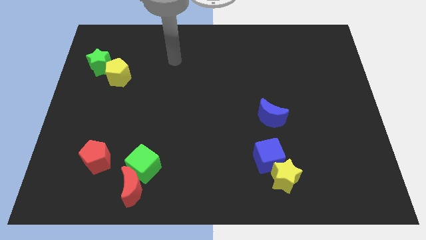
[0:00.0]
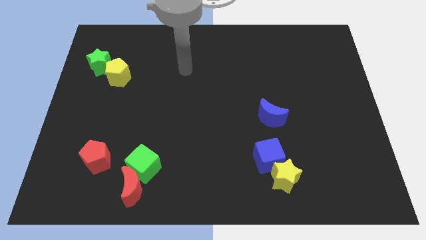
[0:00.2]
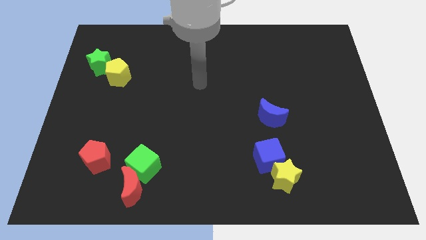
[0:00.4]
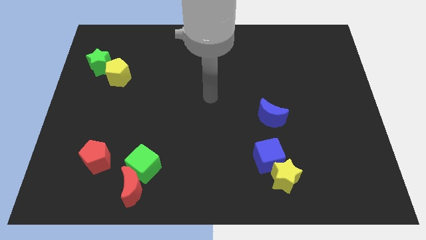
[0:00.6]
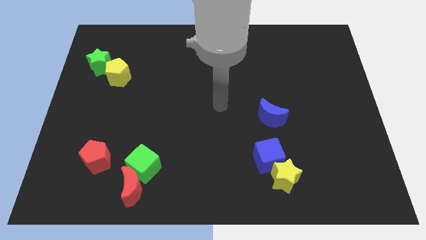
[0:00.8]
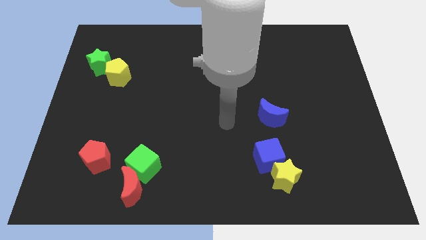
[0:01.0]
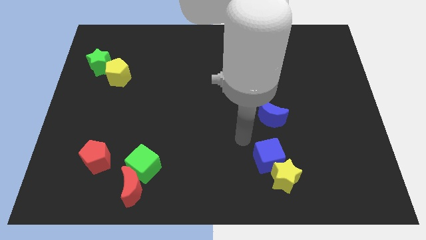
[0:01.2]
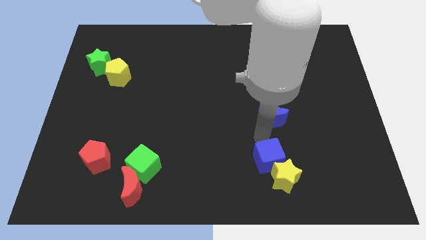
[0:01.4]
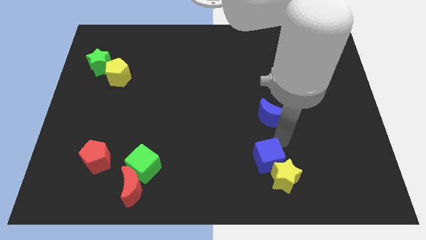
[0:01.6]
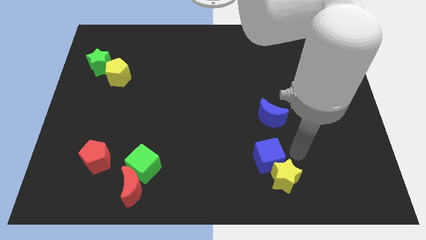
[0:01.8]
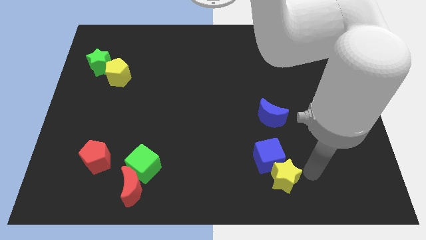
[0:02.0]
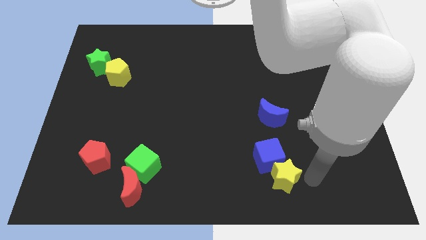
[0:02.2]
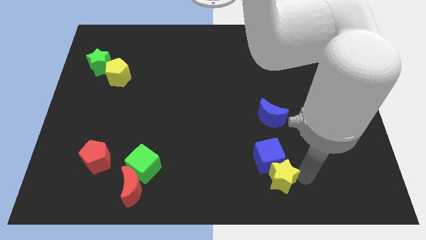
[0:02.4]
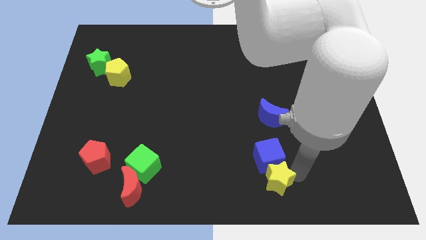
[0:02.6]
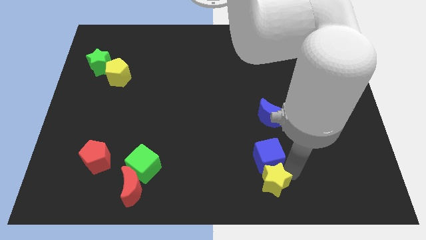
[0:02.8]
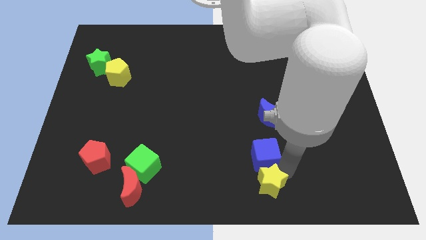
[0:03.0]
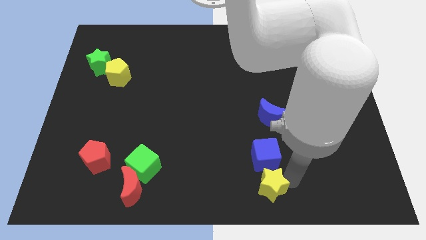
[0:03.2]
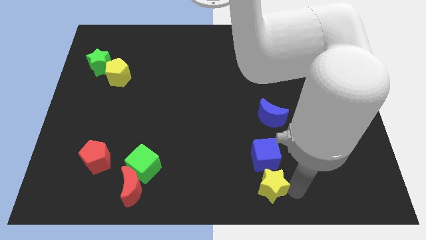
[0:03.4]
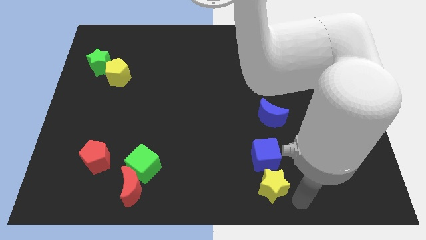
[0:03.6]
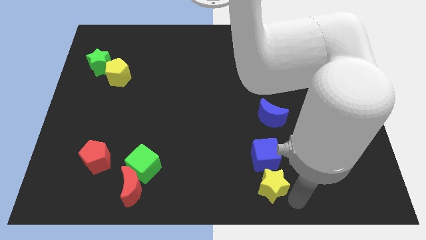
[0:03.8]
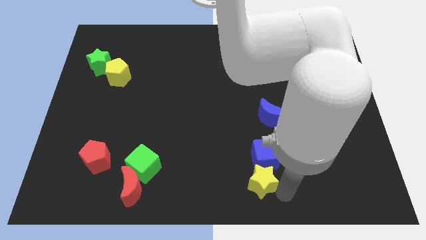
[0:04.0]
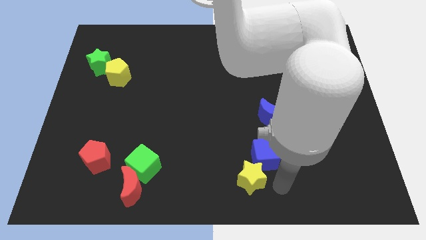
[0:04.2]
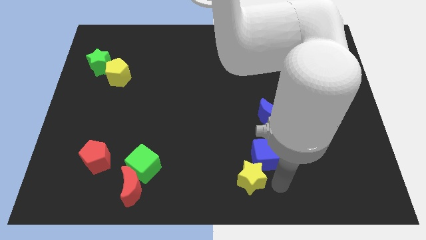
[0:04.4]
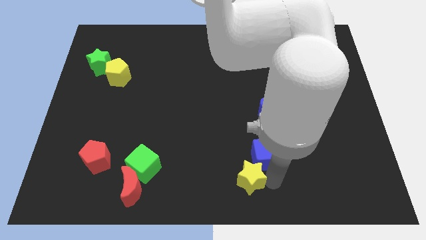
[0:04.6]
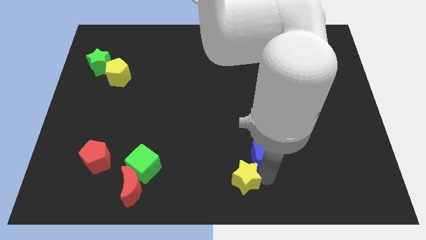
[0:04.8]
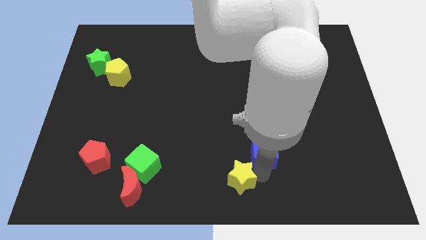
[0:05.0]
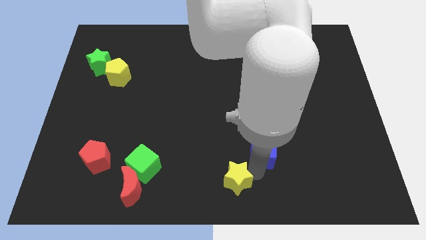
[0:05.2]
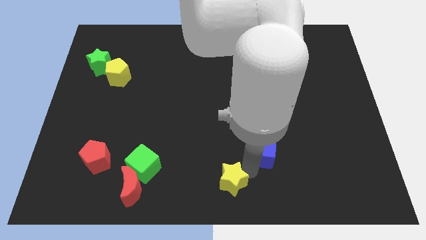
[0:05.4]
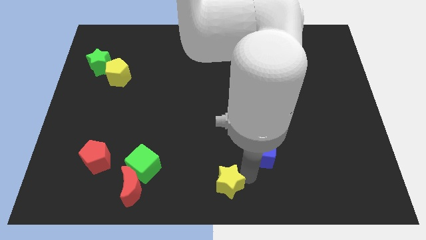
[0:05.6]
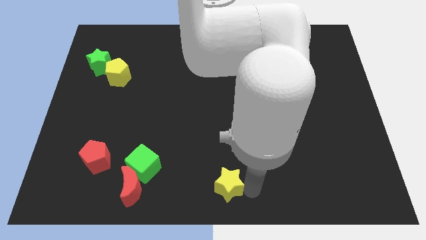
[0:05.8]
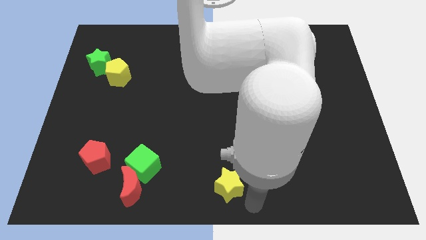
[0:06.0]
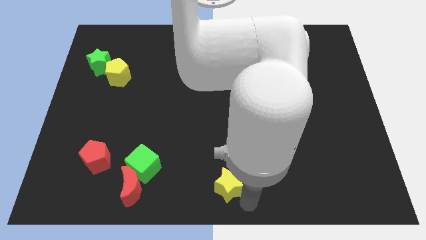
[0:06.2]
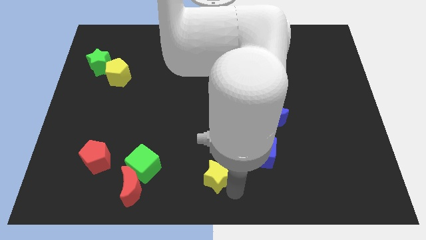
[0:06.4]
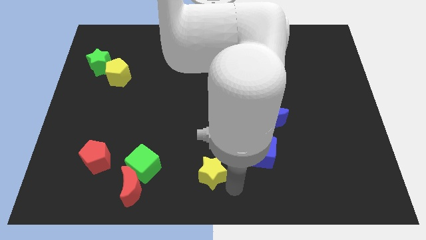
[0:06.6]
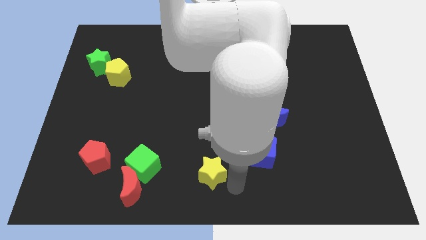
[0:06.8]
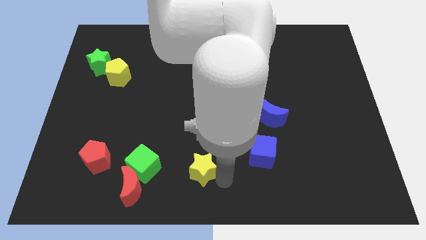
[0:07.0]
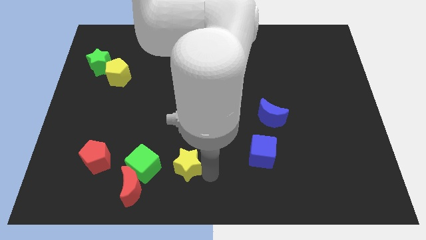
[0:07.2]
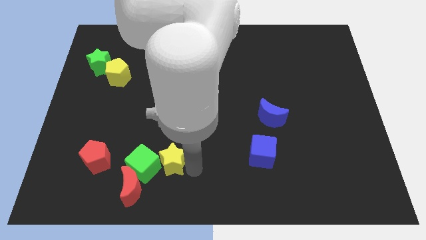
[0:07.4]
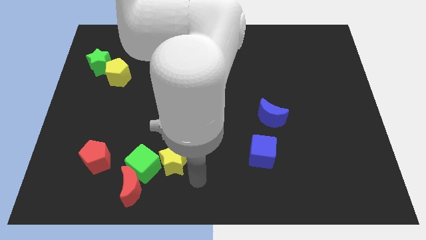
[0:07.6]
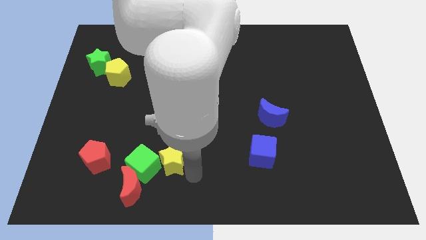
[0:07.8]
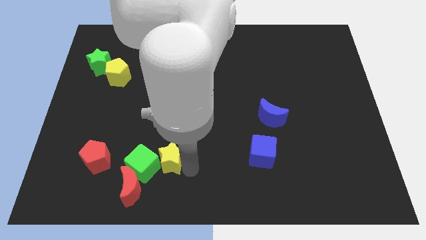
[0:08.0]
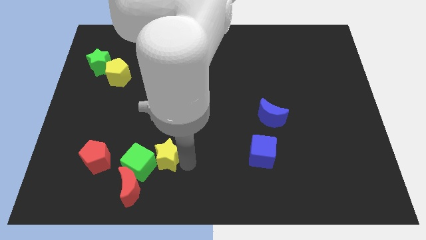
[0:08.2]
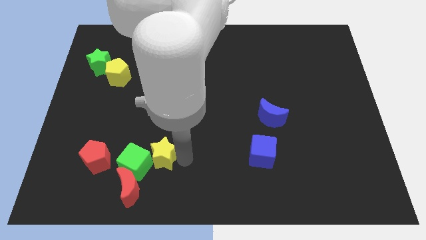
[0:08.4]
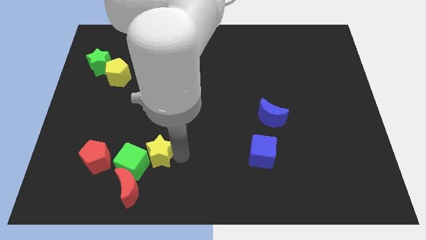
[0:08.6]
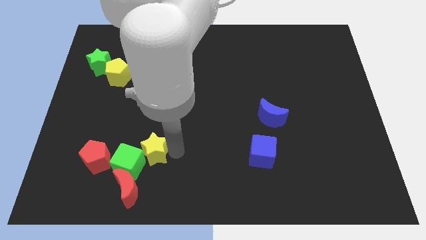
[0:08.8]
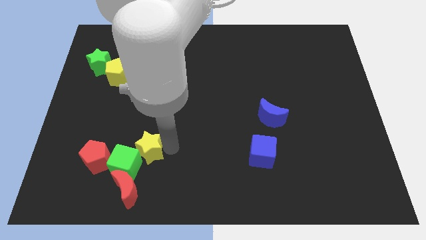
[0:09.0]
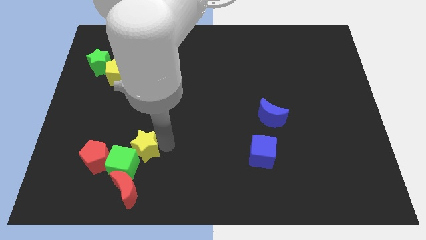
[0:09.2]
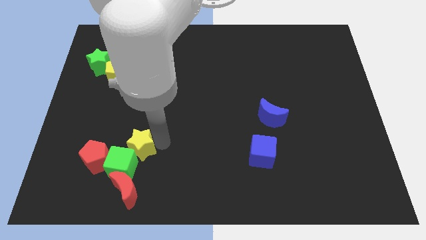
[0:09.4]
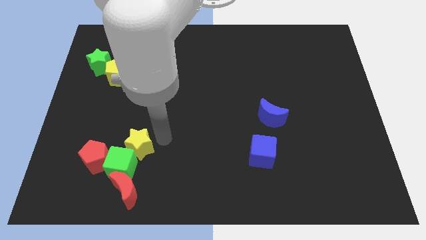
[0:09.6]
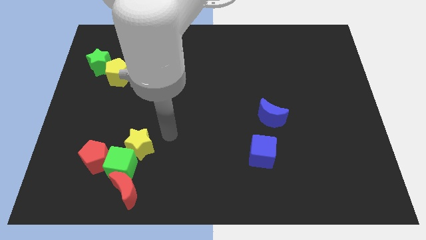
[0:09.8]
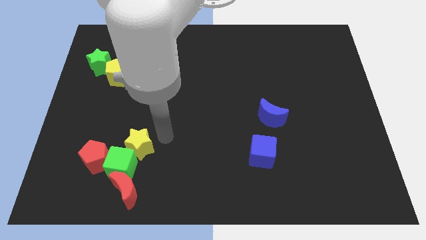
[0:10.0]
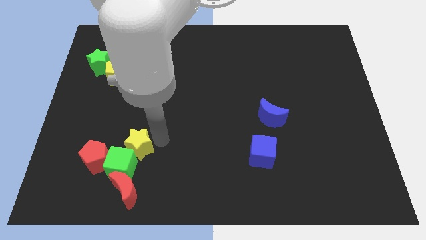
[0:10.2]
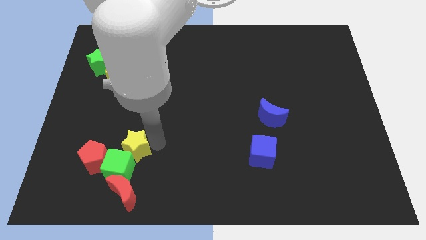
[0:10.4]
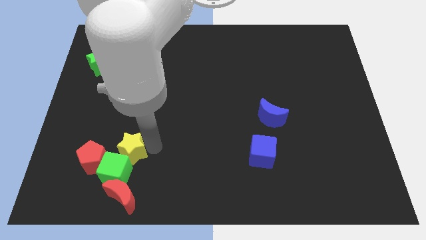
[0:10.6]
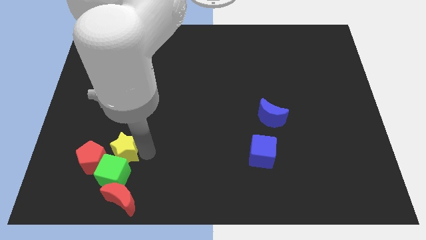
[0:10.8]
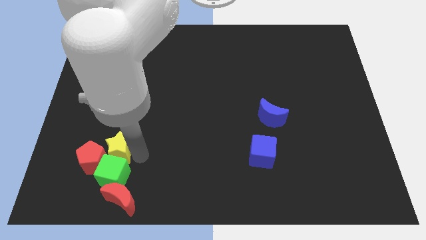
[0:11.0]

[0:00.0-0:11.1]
move the yellow star close to the red pentagon

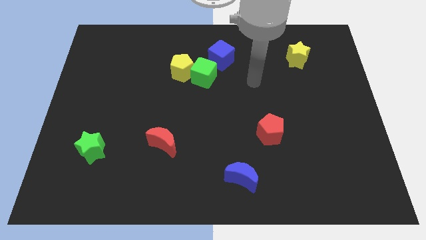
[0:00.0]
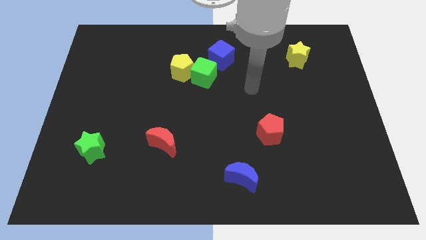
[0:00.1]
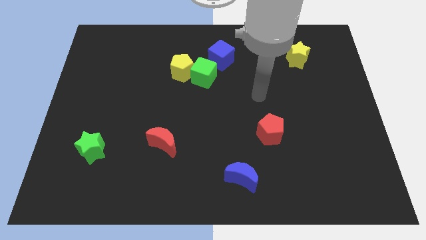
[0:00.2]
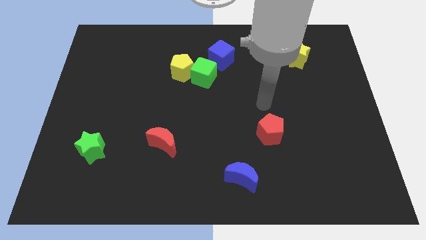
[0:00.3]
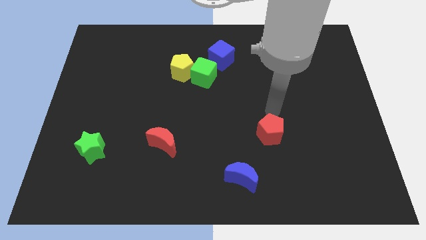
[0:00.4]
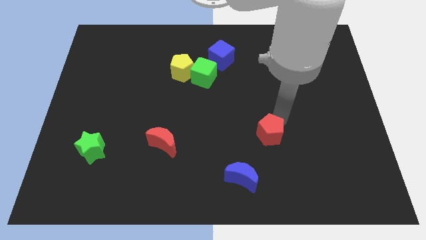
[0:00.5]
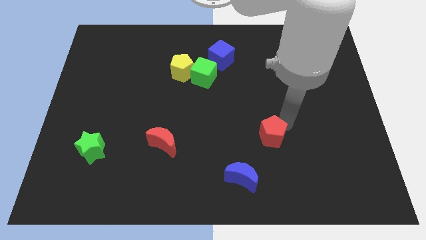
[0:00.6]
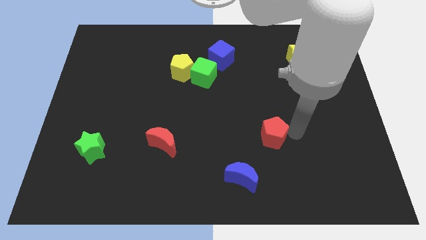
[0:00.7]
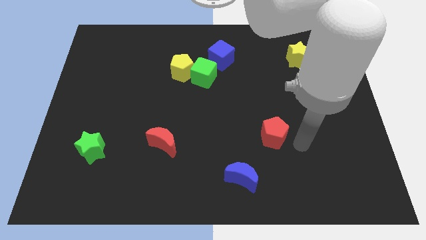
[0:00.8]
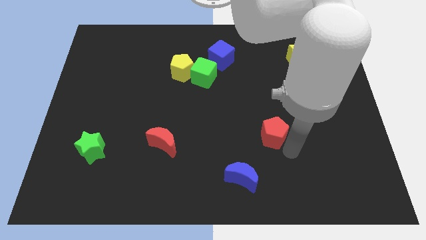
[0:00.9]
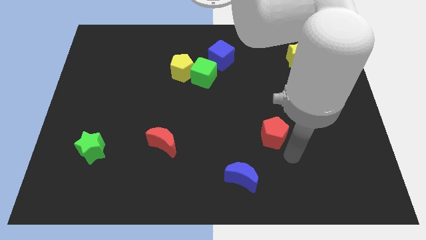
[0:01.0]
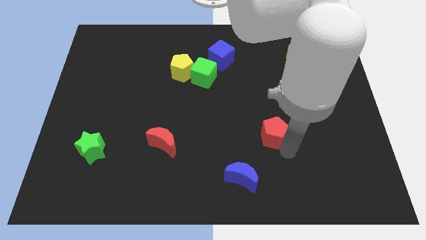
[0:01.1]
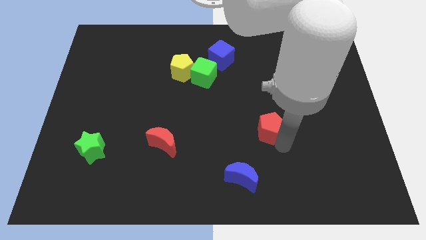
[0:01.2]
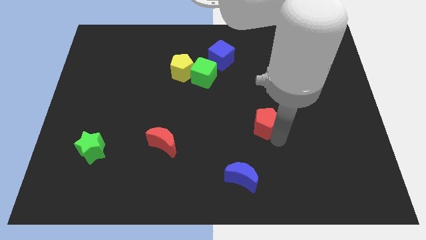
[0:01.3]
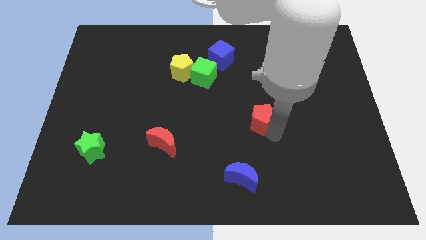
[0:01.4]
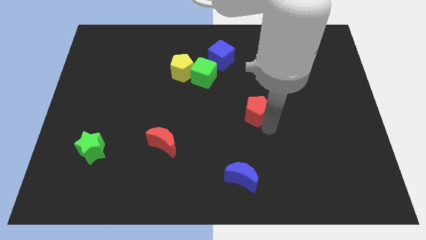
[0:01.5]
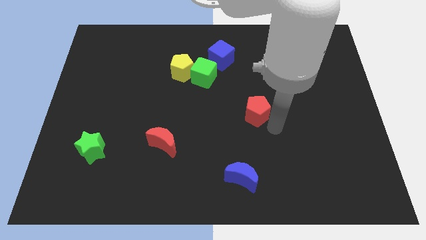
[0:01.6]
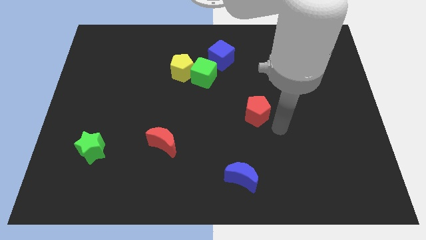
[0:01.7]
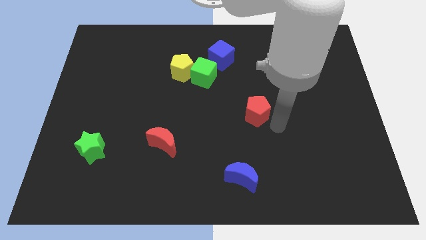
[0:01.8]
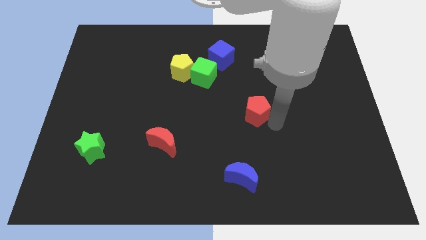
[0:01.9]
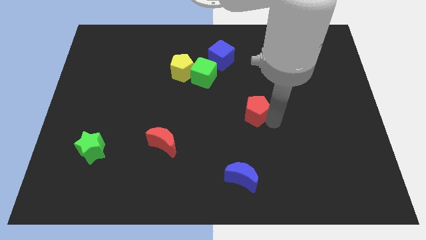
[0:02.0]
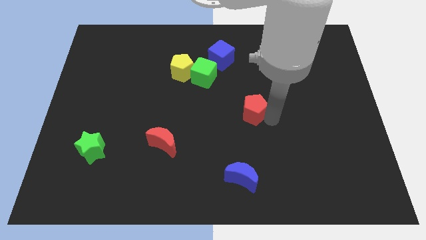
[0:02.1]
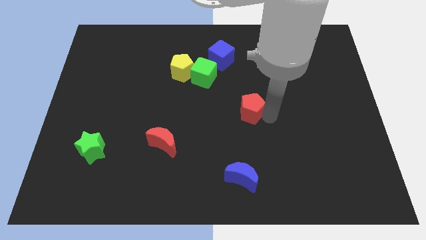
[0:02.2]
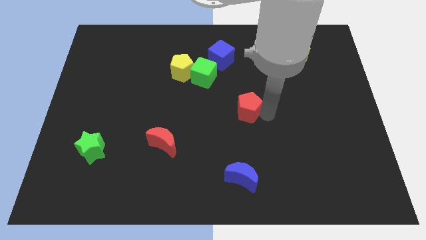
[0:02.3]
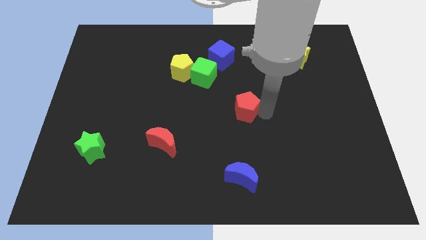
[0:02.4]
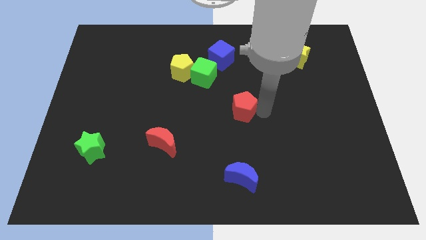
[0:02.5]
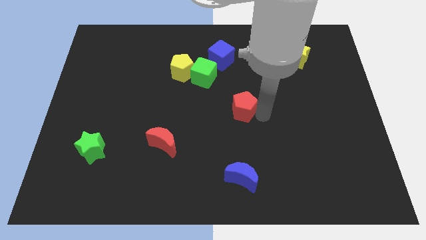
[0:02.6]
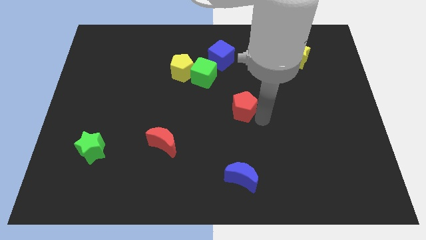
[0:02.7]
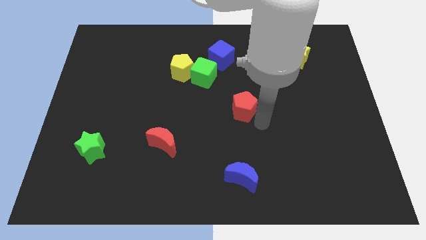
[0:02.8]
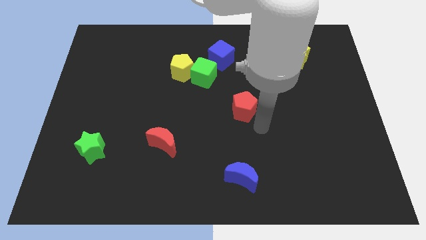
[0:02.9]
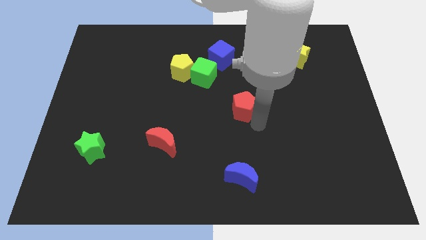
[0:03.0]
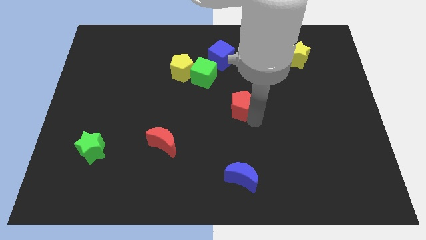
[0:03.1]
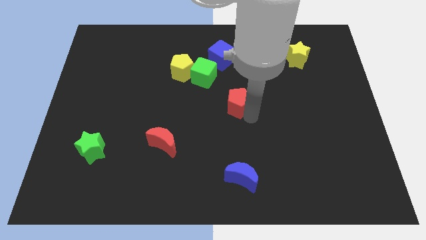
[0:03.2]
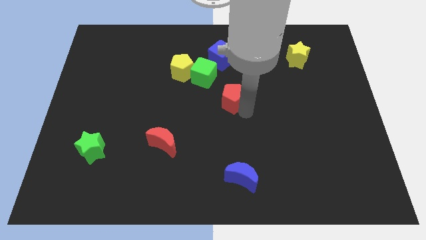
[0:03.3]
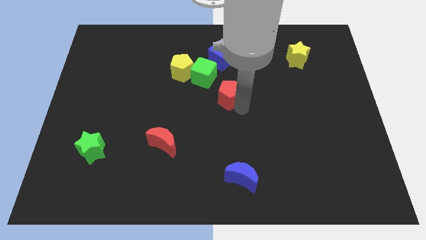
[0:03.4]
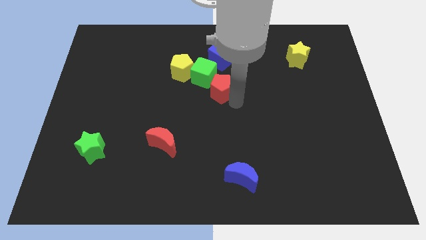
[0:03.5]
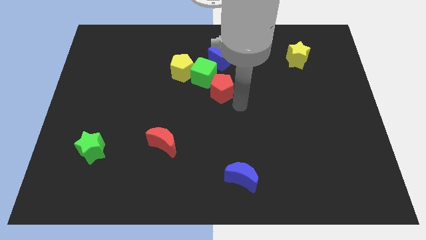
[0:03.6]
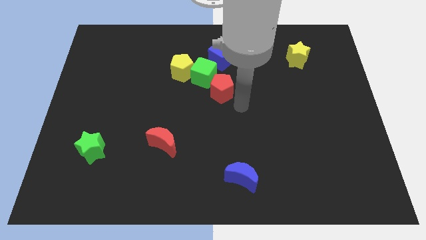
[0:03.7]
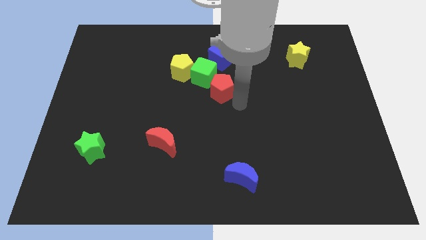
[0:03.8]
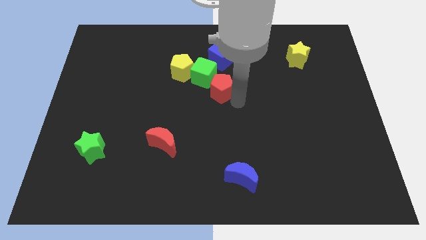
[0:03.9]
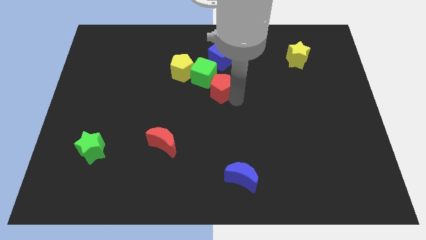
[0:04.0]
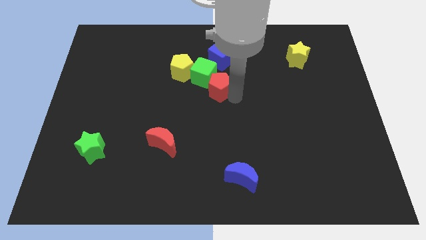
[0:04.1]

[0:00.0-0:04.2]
move the red pentagon to the green cube
